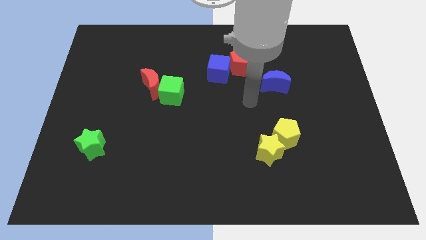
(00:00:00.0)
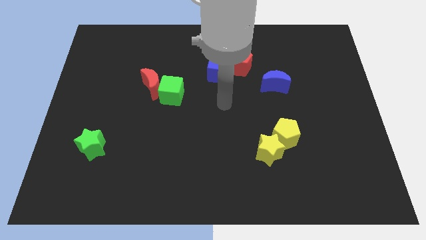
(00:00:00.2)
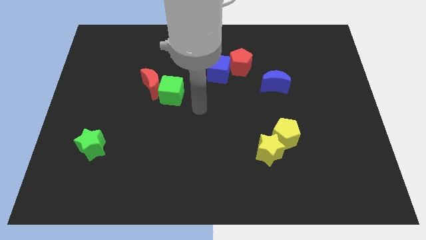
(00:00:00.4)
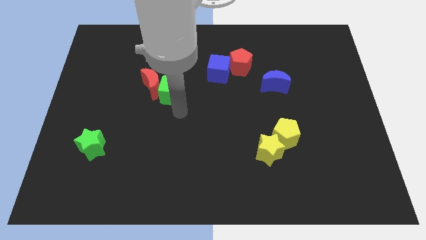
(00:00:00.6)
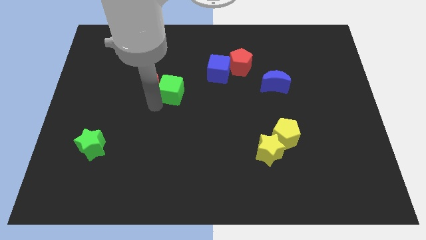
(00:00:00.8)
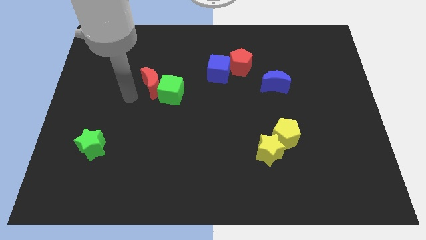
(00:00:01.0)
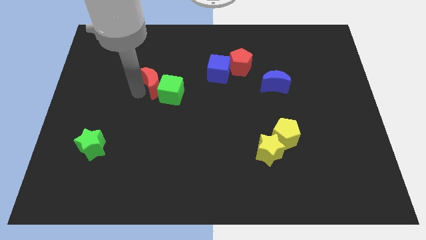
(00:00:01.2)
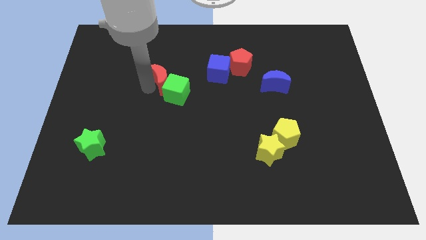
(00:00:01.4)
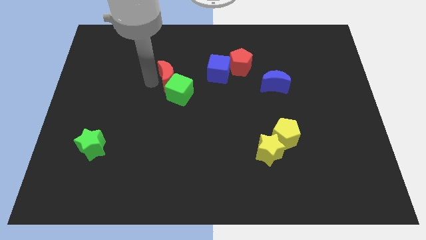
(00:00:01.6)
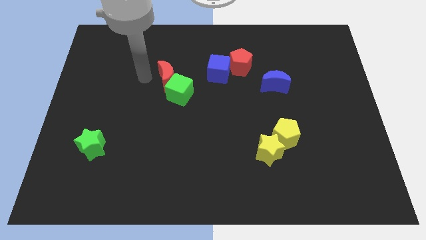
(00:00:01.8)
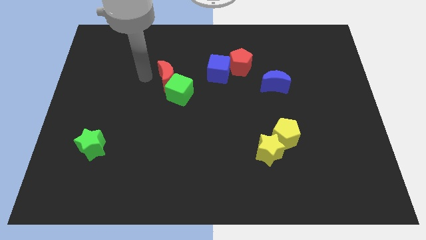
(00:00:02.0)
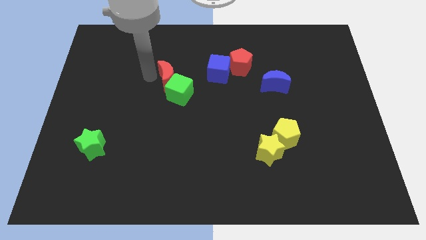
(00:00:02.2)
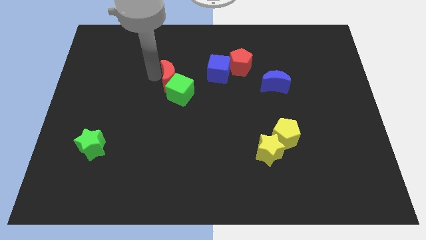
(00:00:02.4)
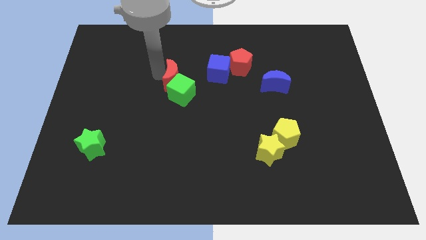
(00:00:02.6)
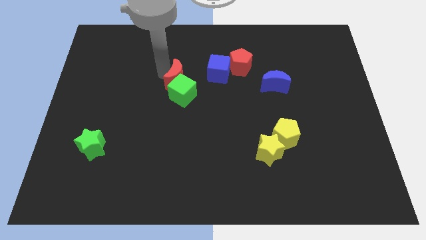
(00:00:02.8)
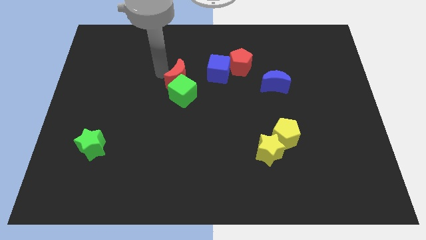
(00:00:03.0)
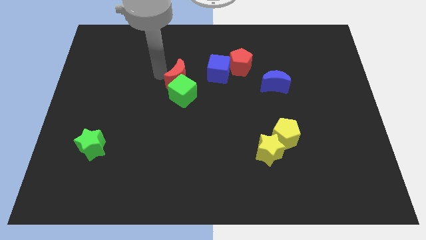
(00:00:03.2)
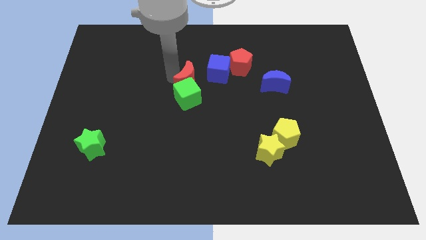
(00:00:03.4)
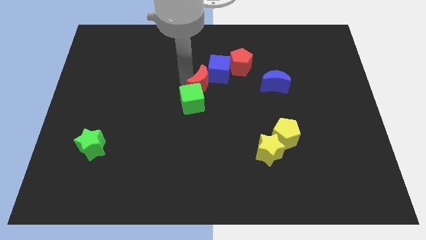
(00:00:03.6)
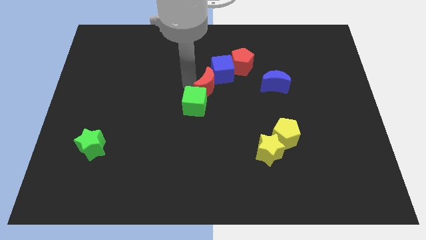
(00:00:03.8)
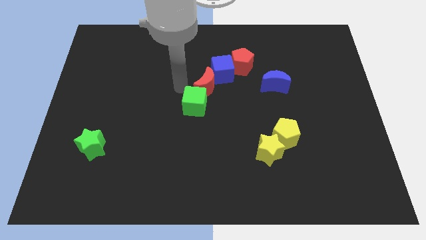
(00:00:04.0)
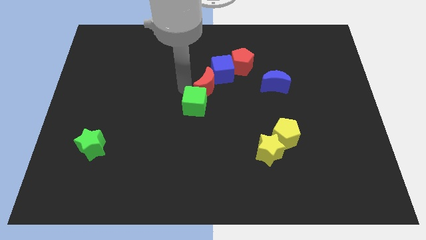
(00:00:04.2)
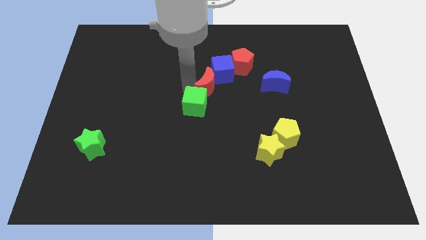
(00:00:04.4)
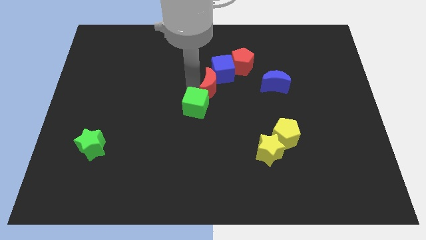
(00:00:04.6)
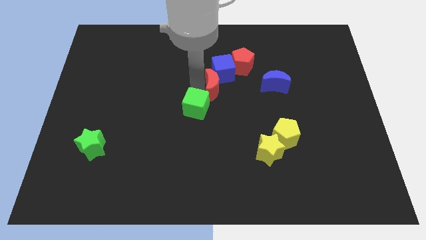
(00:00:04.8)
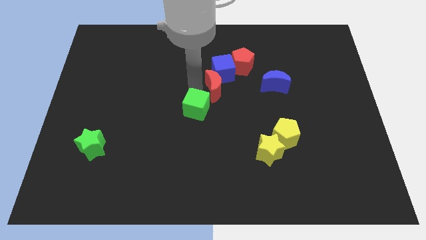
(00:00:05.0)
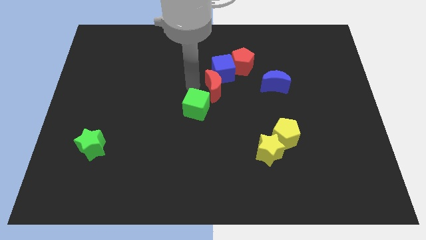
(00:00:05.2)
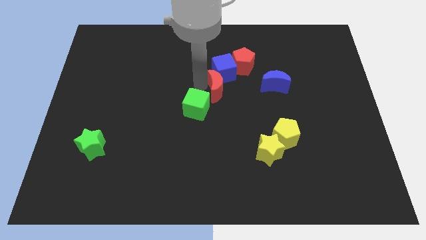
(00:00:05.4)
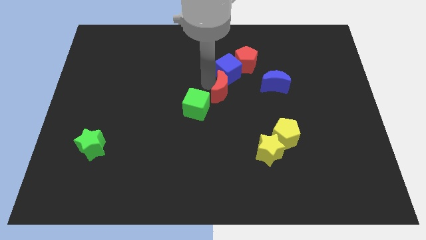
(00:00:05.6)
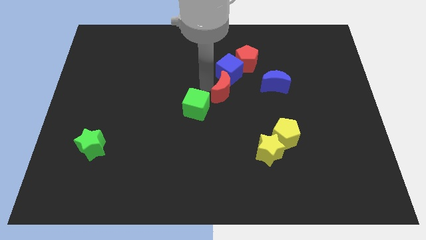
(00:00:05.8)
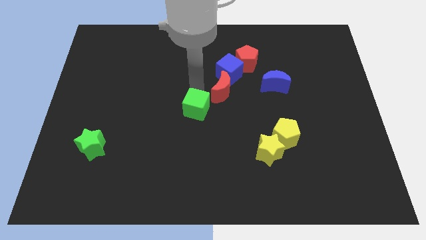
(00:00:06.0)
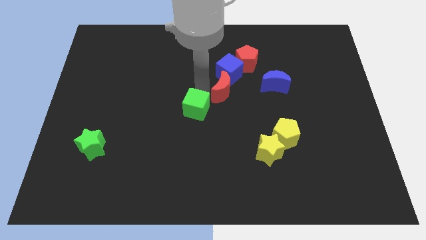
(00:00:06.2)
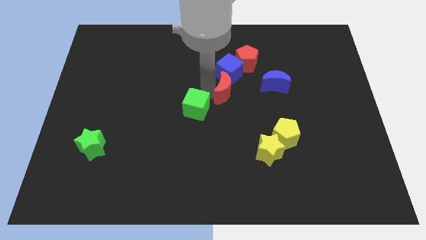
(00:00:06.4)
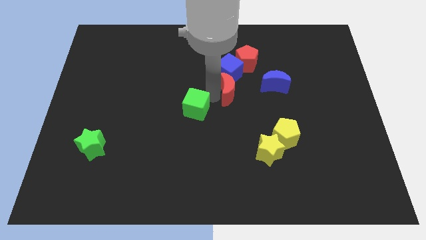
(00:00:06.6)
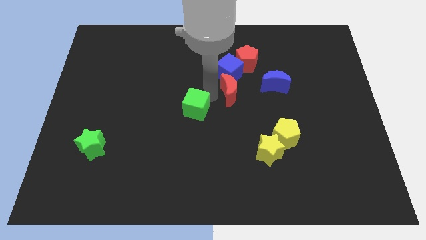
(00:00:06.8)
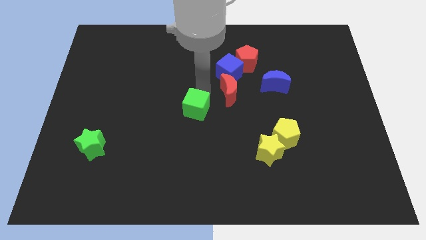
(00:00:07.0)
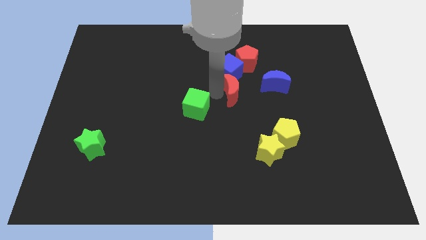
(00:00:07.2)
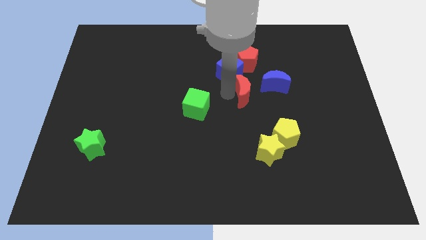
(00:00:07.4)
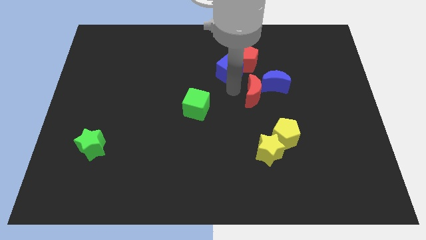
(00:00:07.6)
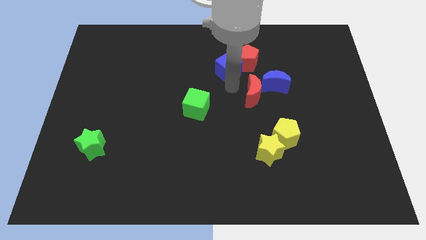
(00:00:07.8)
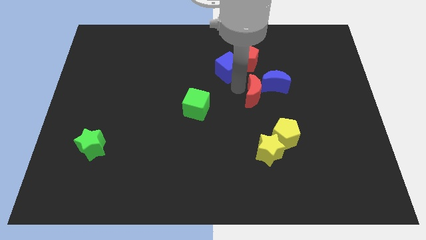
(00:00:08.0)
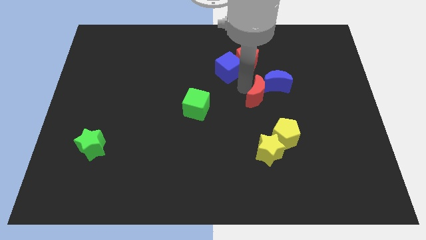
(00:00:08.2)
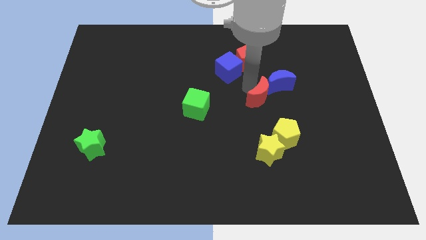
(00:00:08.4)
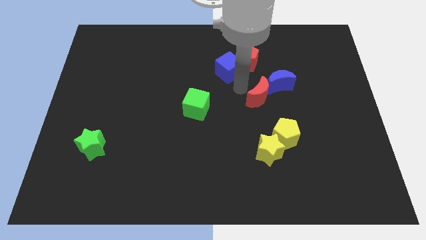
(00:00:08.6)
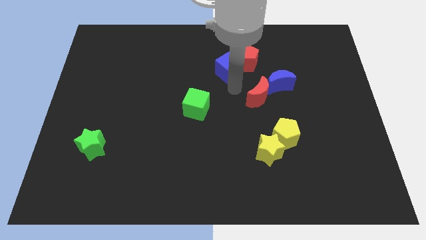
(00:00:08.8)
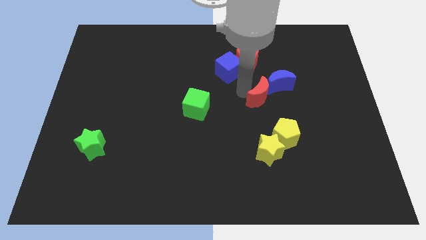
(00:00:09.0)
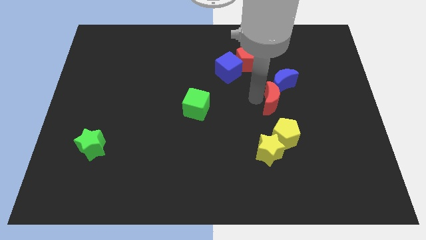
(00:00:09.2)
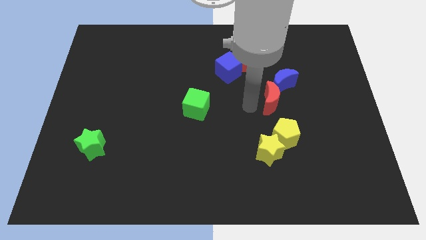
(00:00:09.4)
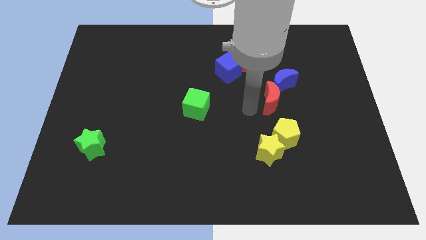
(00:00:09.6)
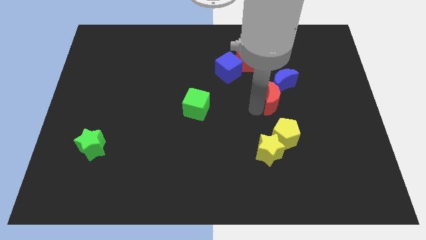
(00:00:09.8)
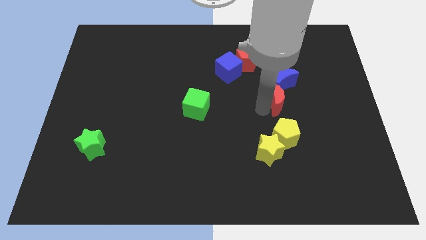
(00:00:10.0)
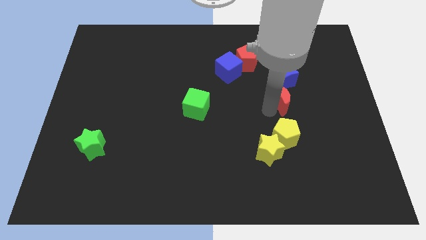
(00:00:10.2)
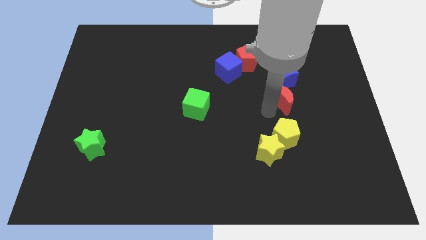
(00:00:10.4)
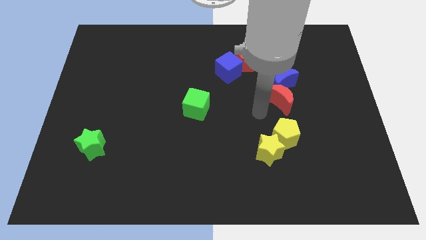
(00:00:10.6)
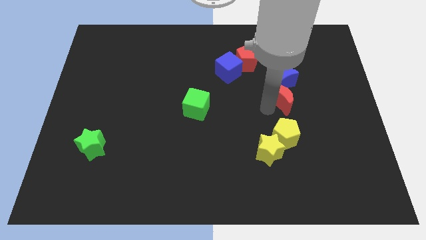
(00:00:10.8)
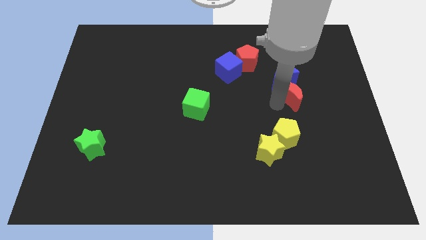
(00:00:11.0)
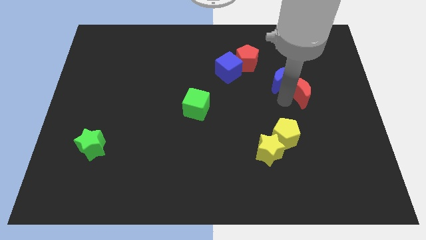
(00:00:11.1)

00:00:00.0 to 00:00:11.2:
slide the red moon to the right side of the blue moon

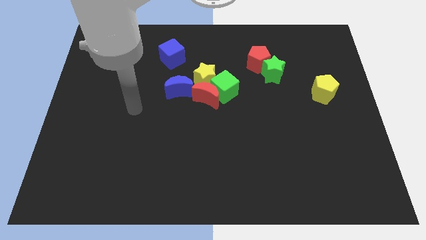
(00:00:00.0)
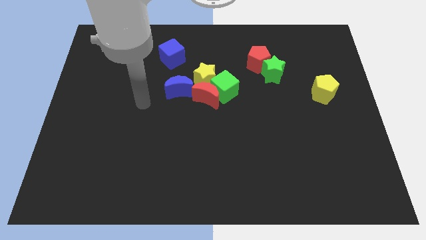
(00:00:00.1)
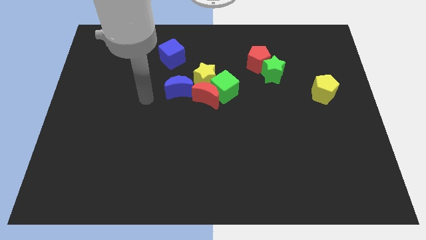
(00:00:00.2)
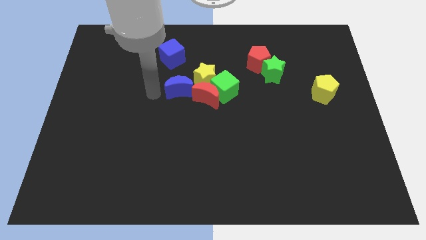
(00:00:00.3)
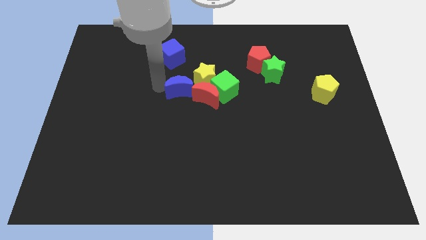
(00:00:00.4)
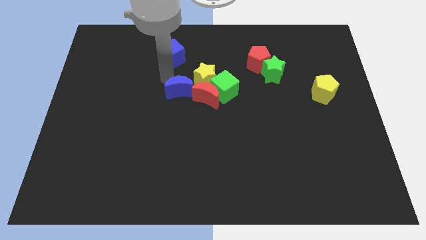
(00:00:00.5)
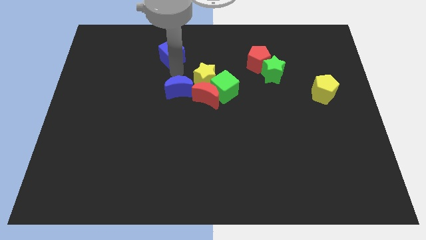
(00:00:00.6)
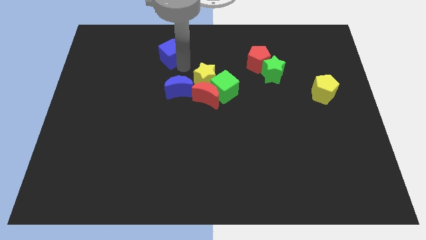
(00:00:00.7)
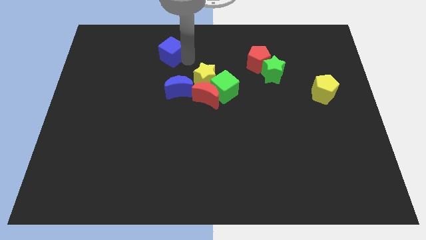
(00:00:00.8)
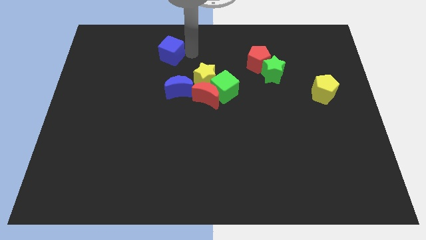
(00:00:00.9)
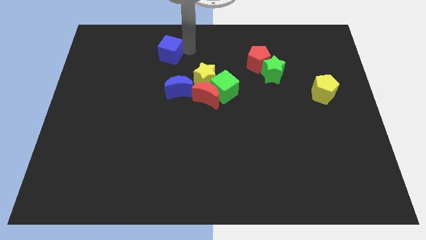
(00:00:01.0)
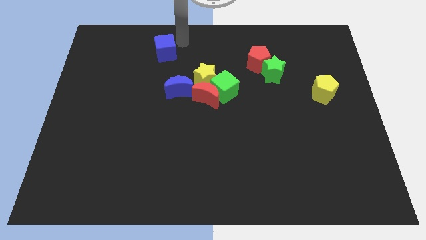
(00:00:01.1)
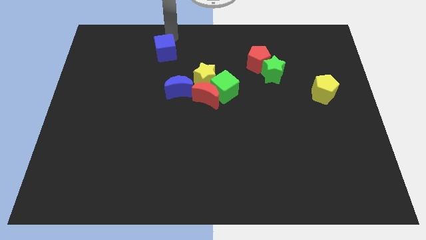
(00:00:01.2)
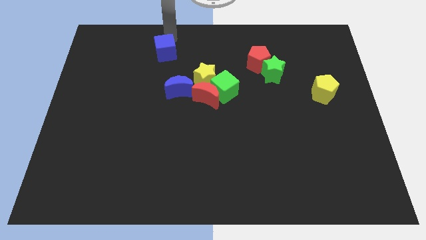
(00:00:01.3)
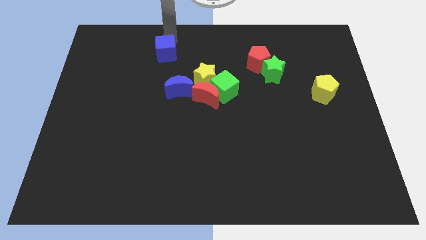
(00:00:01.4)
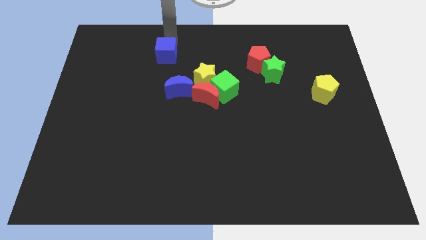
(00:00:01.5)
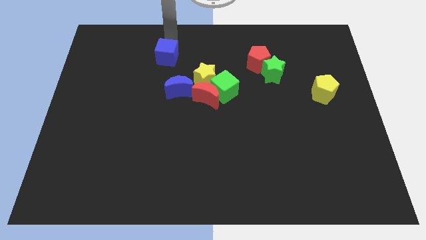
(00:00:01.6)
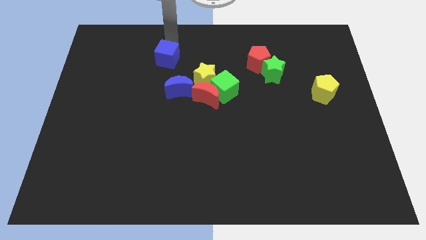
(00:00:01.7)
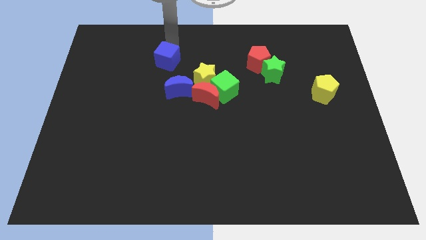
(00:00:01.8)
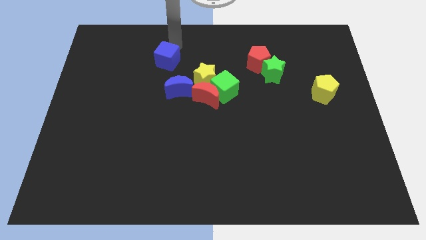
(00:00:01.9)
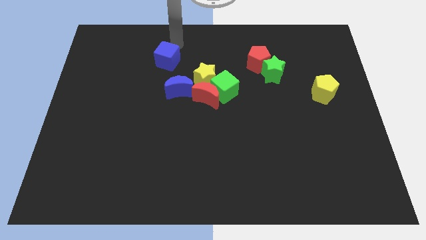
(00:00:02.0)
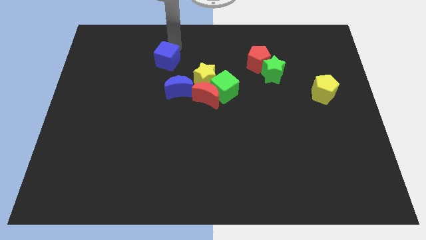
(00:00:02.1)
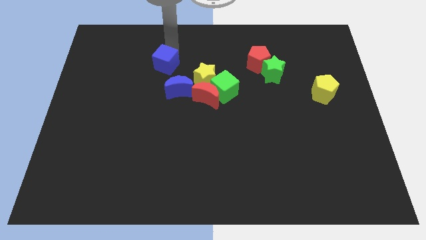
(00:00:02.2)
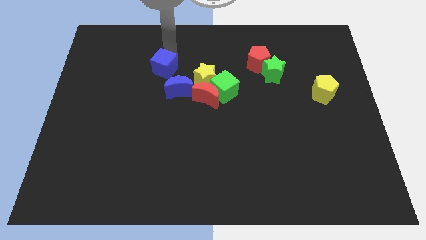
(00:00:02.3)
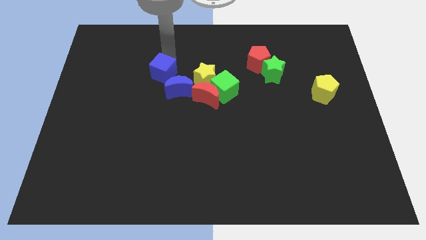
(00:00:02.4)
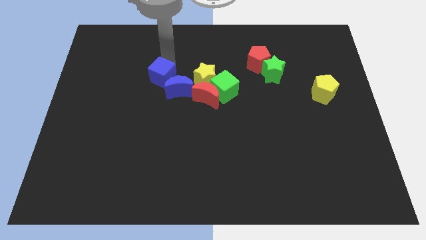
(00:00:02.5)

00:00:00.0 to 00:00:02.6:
put the blue cube just left of the blue moon

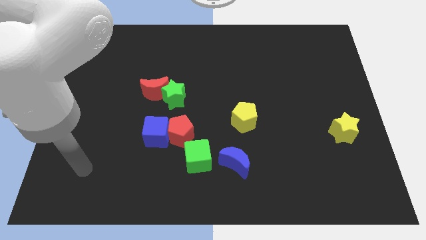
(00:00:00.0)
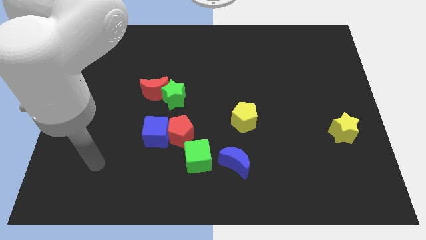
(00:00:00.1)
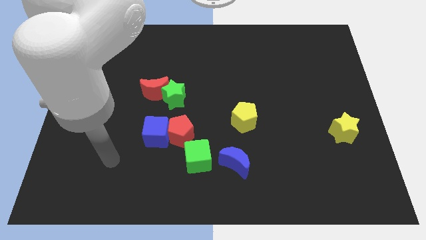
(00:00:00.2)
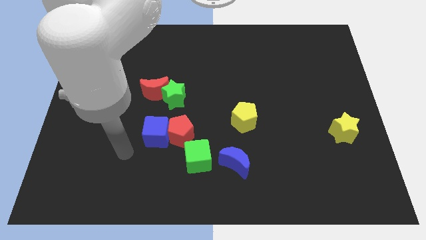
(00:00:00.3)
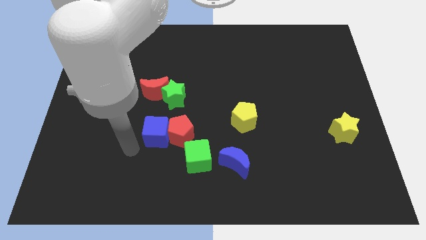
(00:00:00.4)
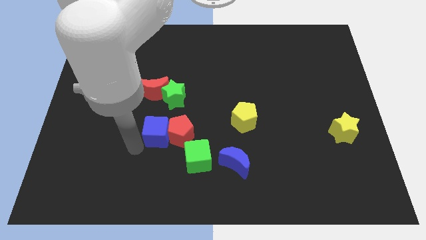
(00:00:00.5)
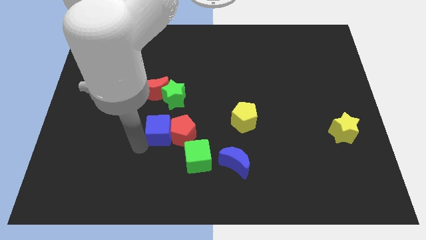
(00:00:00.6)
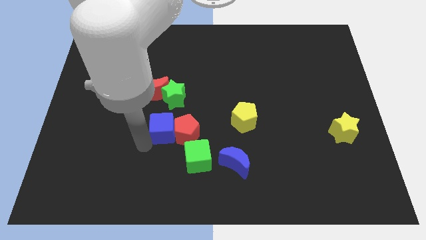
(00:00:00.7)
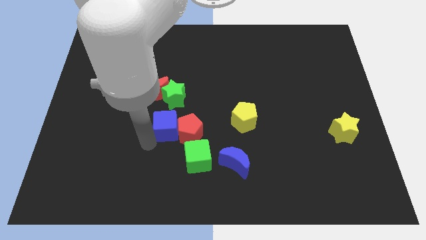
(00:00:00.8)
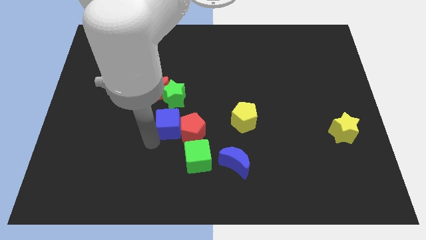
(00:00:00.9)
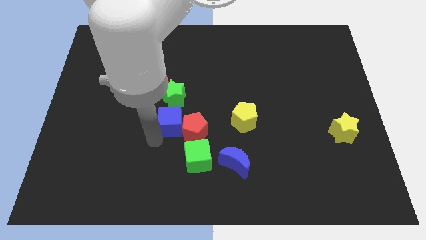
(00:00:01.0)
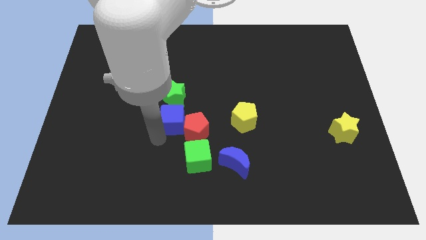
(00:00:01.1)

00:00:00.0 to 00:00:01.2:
push the blue cube to the bottom right of the green star
